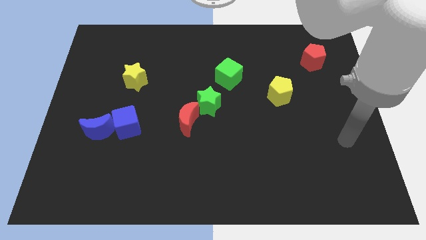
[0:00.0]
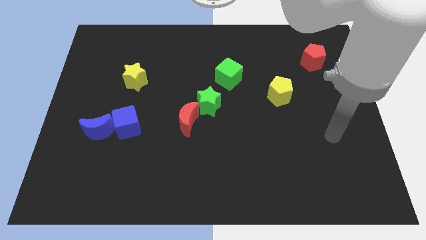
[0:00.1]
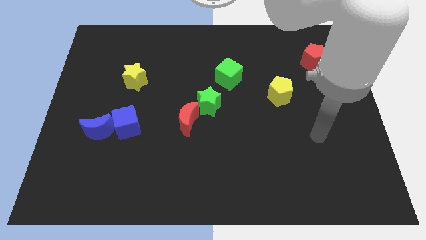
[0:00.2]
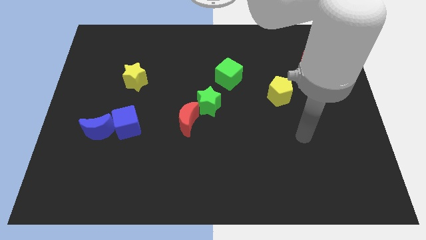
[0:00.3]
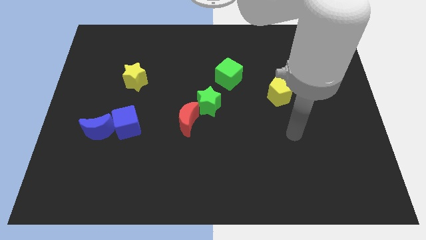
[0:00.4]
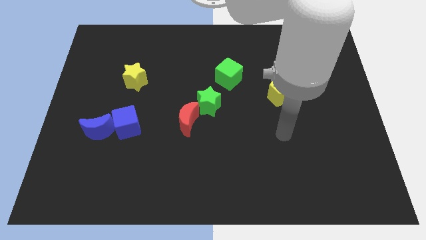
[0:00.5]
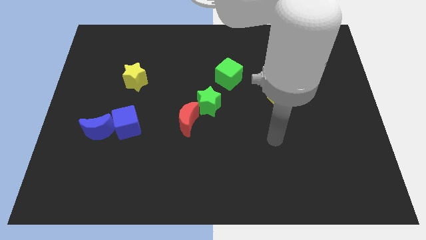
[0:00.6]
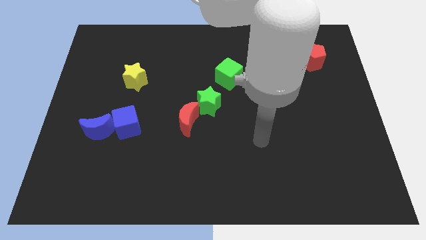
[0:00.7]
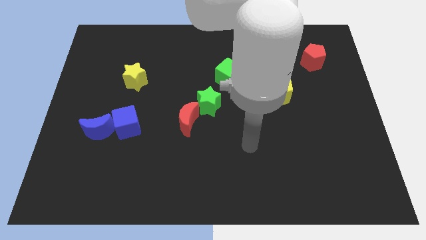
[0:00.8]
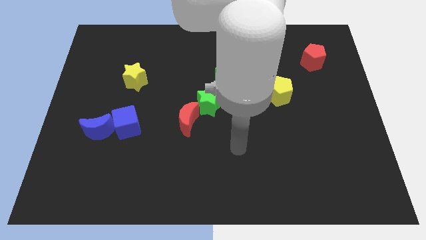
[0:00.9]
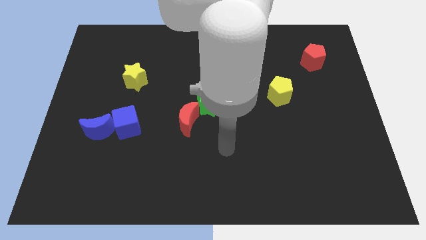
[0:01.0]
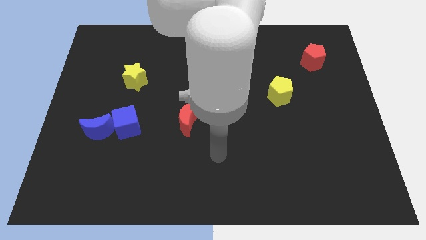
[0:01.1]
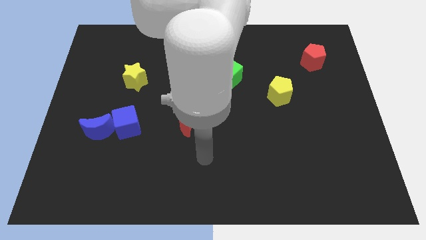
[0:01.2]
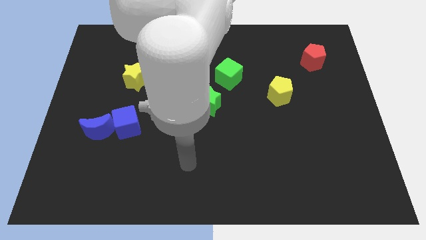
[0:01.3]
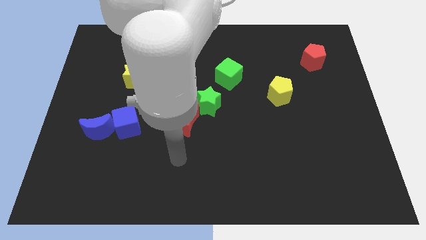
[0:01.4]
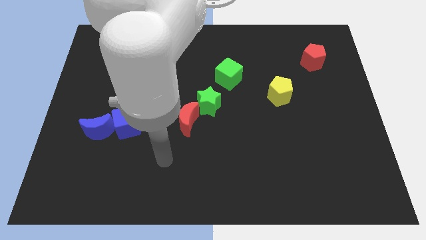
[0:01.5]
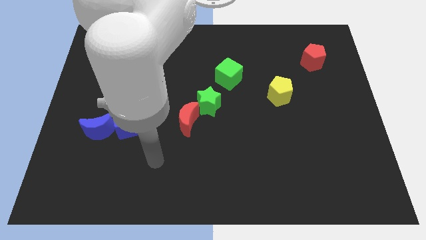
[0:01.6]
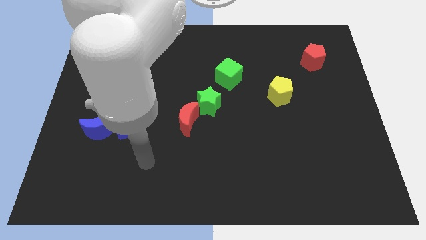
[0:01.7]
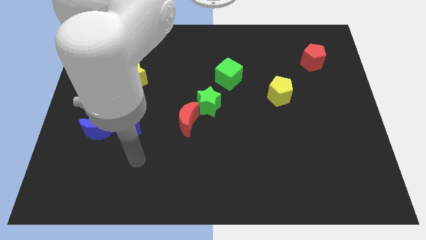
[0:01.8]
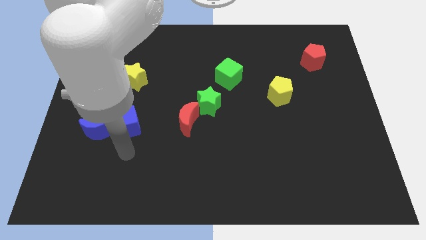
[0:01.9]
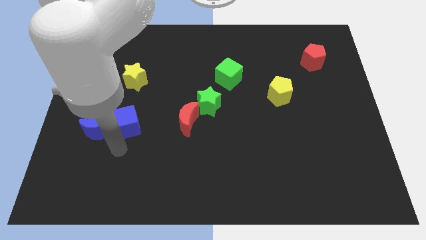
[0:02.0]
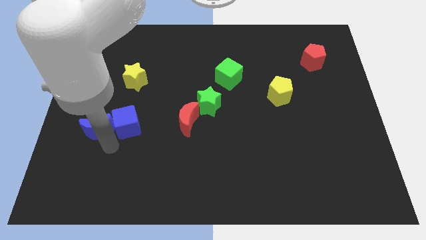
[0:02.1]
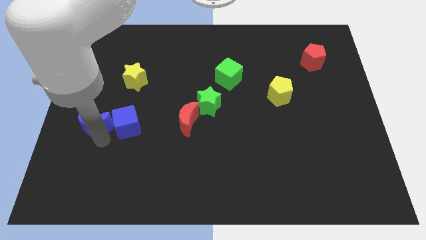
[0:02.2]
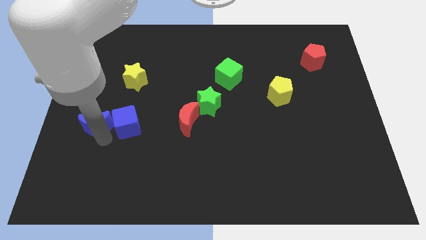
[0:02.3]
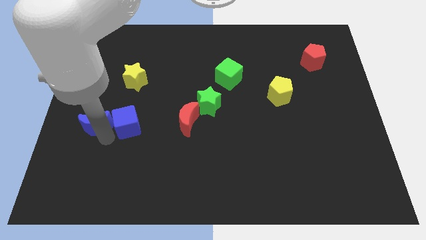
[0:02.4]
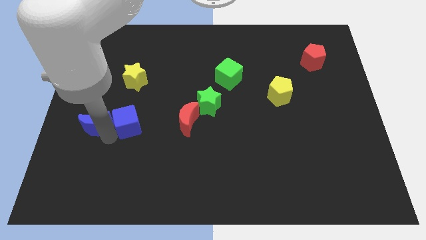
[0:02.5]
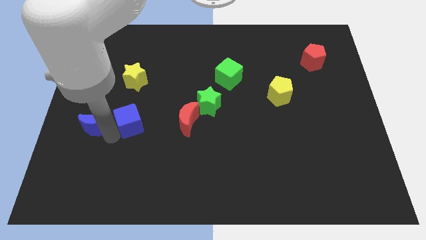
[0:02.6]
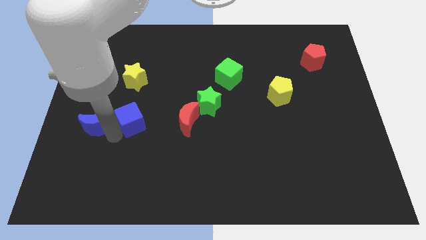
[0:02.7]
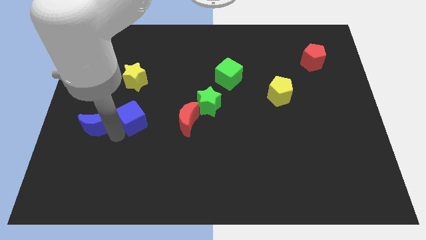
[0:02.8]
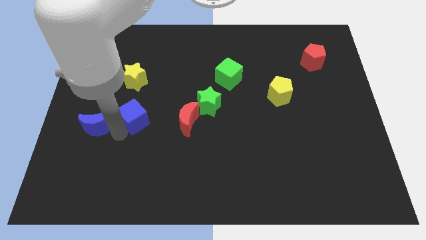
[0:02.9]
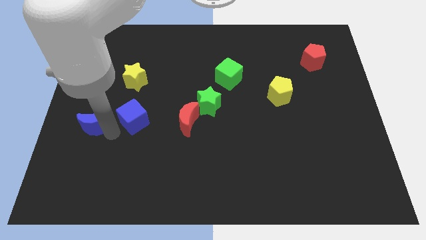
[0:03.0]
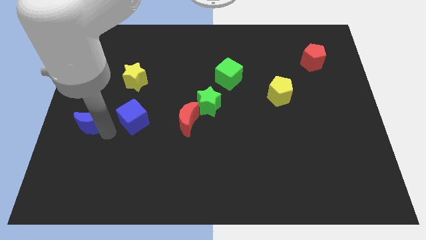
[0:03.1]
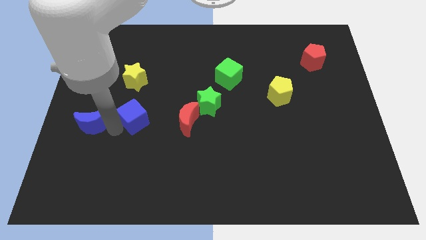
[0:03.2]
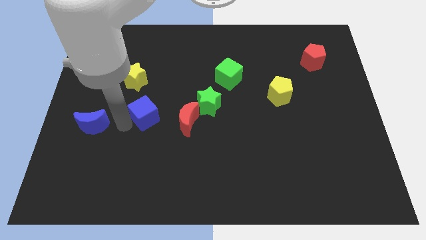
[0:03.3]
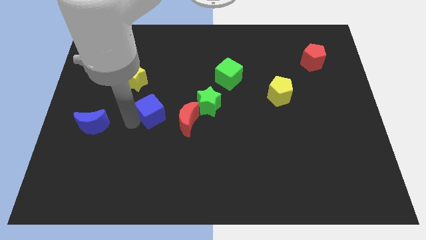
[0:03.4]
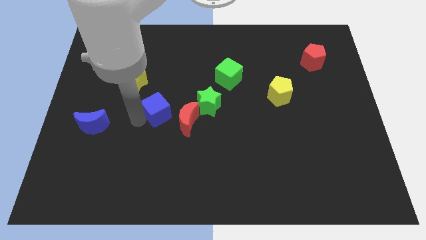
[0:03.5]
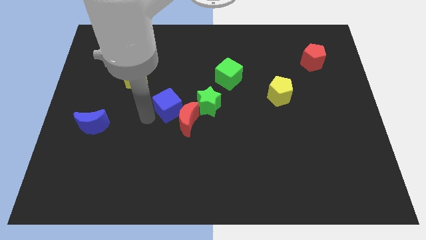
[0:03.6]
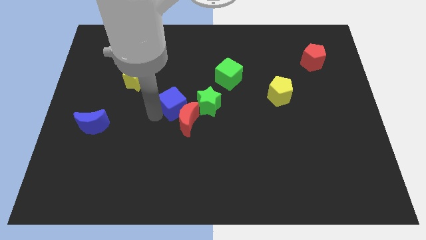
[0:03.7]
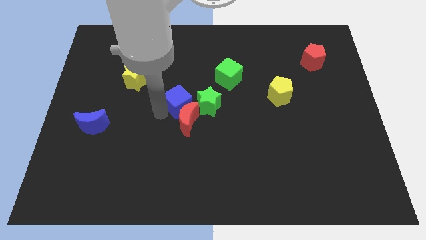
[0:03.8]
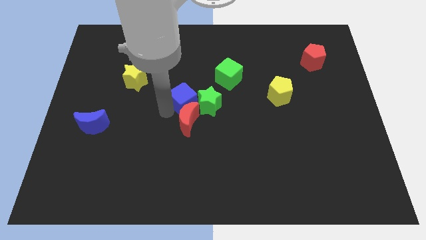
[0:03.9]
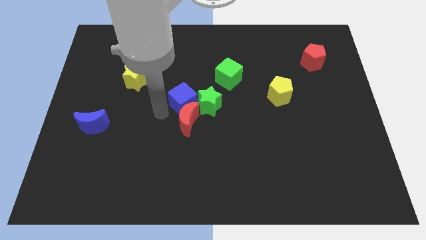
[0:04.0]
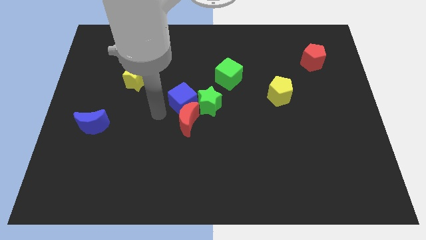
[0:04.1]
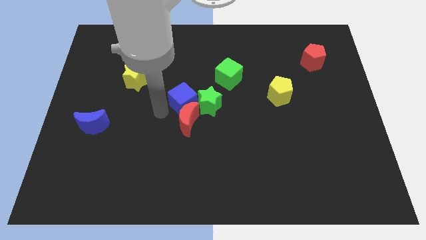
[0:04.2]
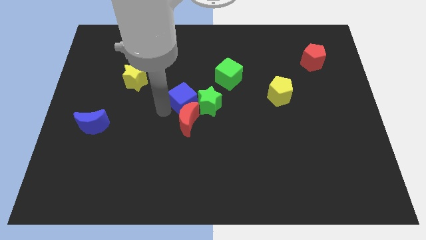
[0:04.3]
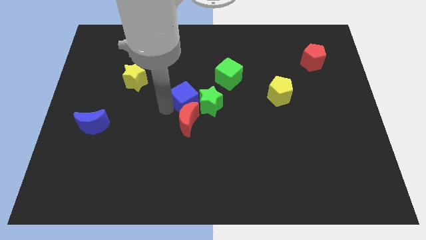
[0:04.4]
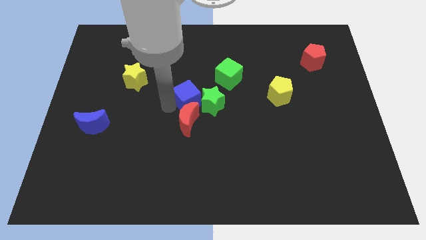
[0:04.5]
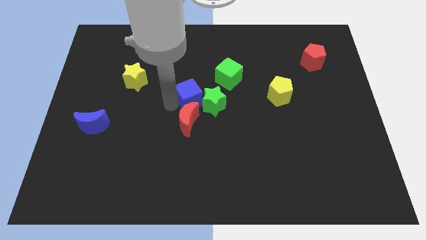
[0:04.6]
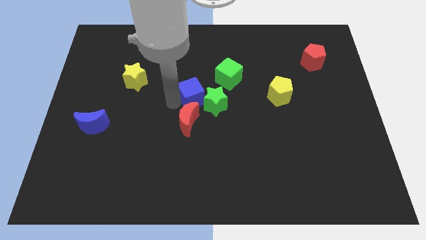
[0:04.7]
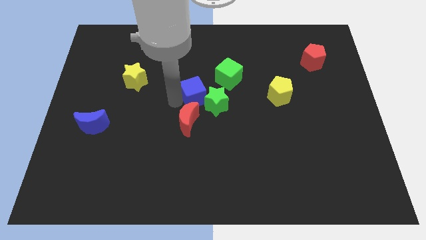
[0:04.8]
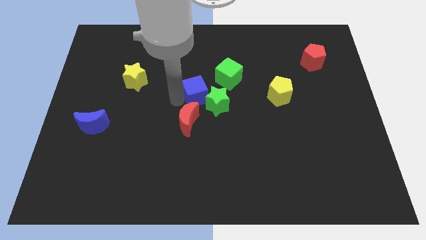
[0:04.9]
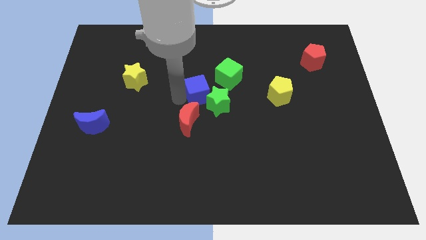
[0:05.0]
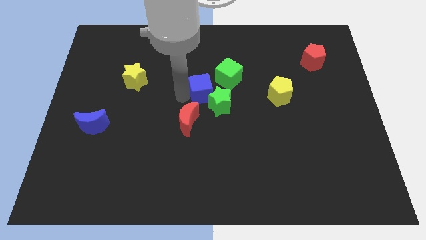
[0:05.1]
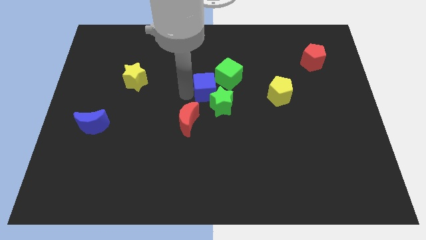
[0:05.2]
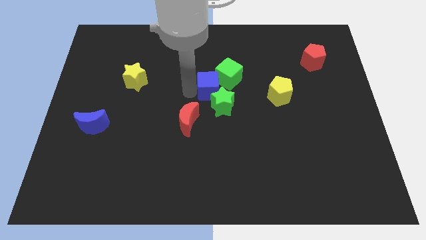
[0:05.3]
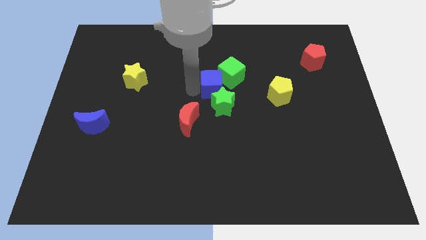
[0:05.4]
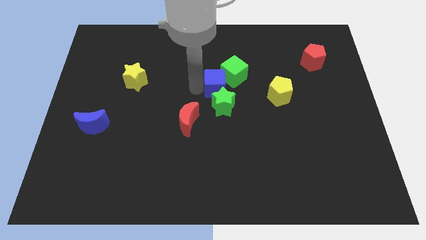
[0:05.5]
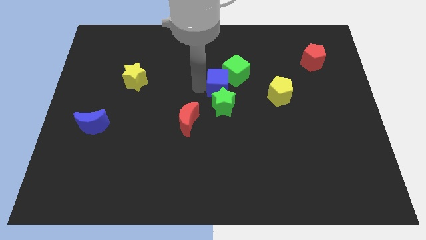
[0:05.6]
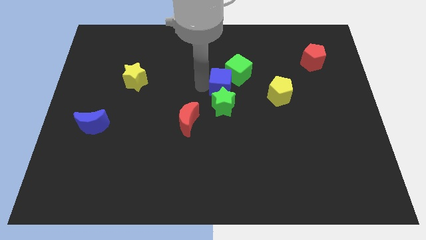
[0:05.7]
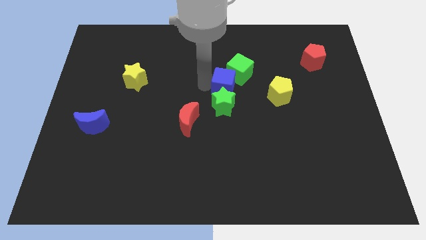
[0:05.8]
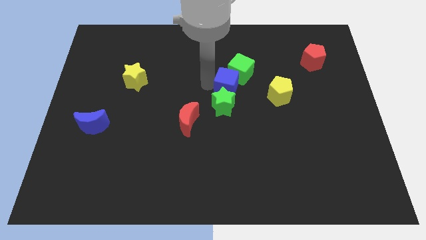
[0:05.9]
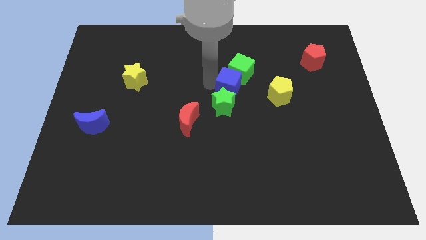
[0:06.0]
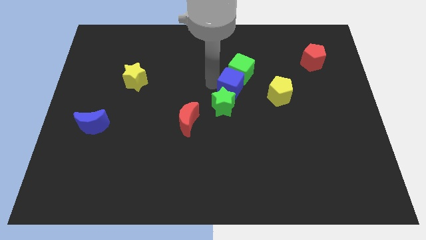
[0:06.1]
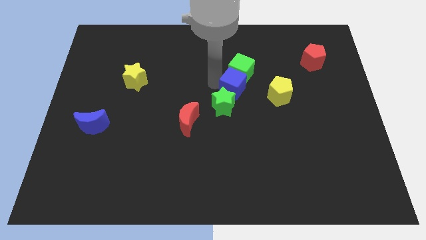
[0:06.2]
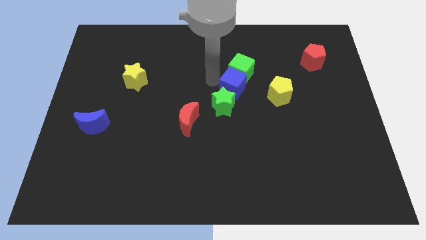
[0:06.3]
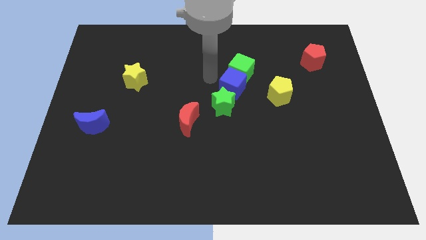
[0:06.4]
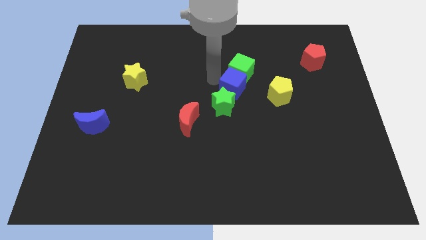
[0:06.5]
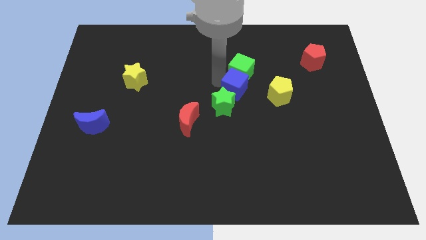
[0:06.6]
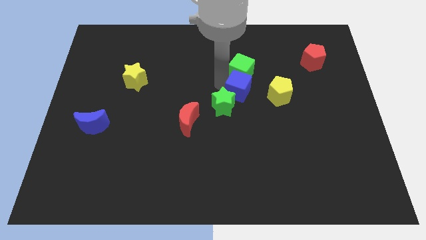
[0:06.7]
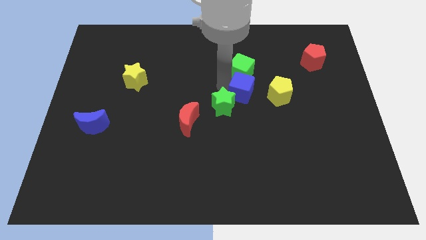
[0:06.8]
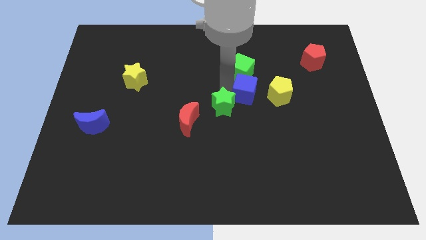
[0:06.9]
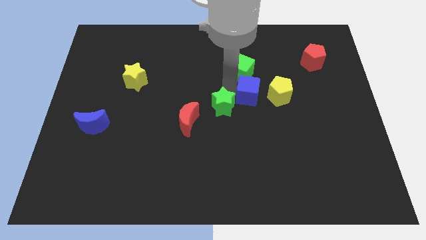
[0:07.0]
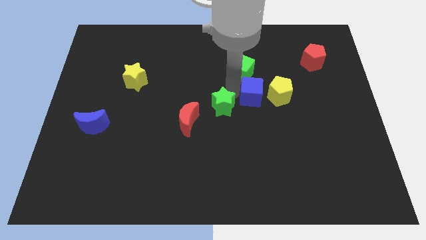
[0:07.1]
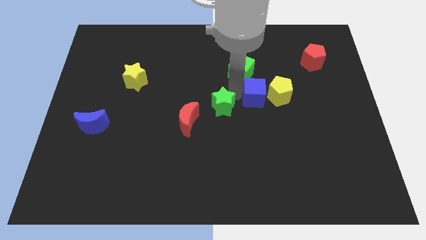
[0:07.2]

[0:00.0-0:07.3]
put the blue cube towards the yellow pentagon

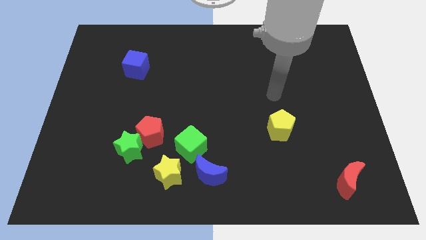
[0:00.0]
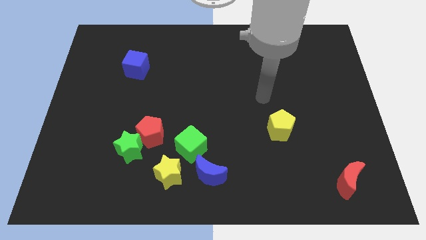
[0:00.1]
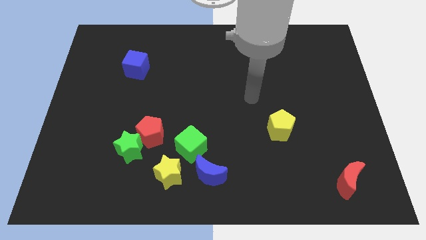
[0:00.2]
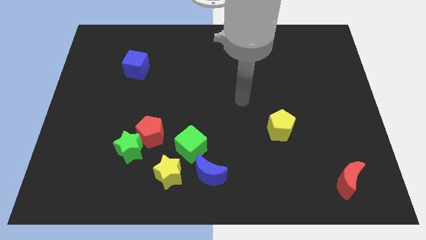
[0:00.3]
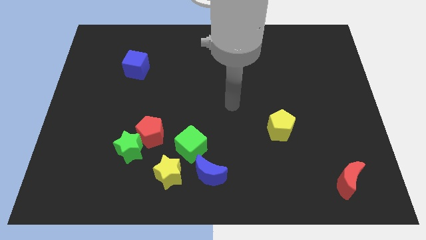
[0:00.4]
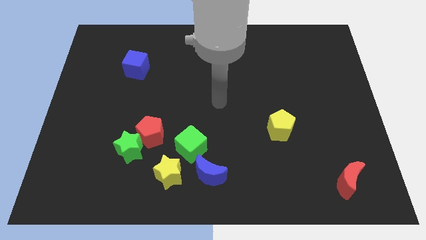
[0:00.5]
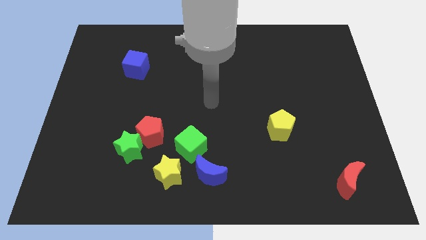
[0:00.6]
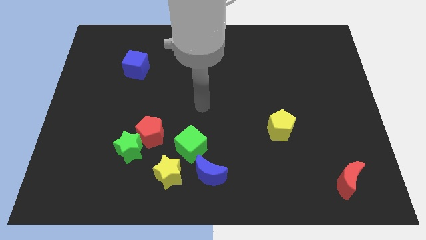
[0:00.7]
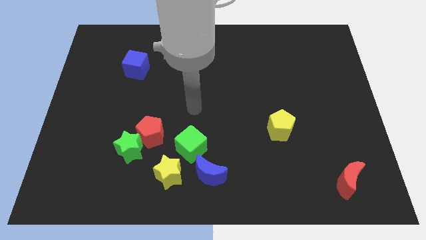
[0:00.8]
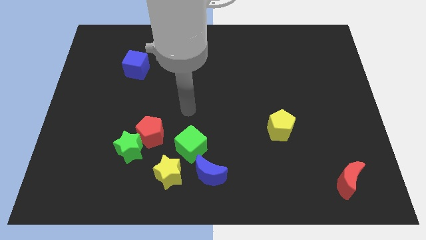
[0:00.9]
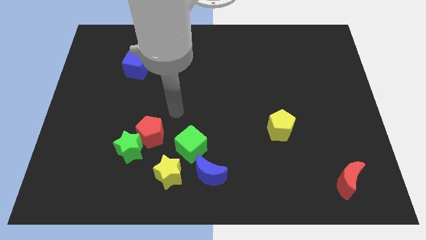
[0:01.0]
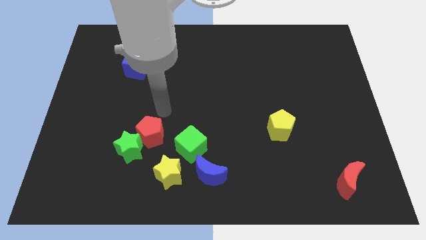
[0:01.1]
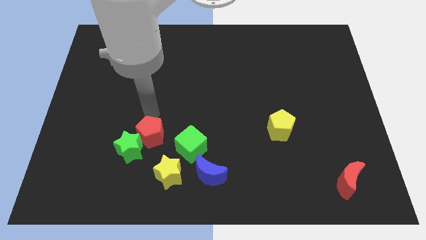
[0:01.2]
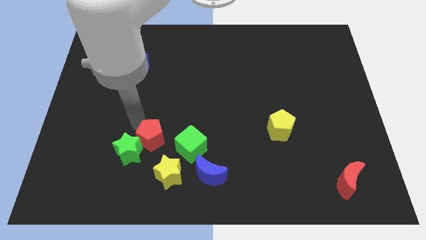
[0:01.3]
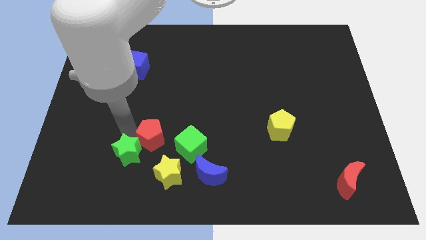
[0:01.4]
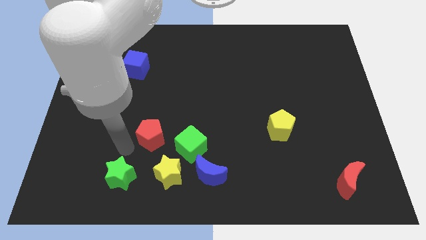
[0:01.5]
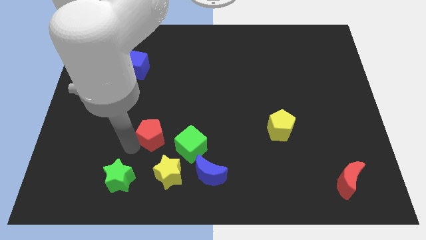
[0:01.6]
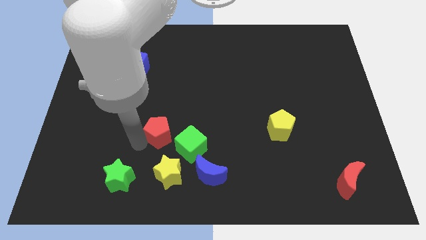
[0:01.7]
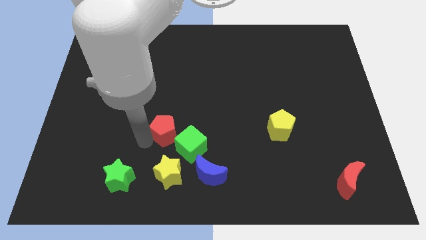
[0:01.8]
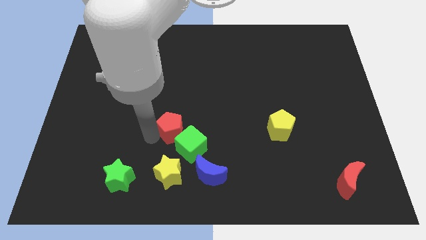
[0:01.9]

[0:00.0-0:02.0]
move the red pentagon close to the green cube
